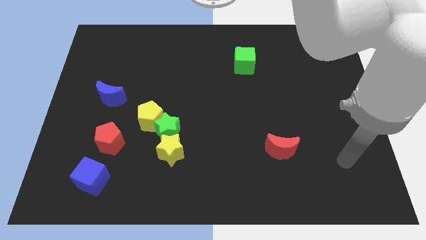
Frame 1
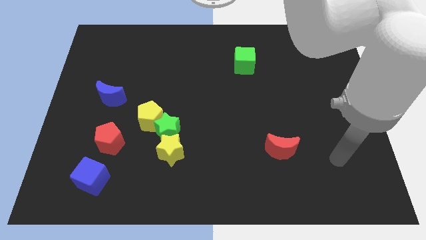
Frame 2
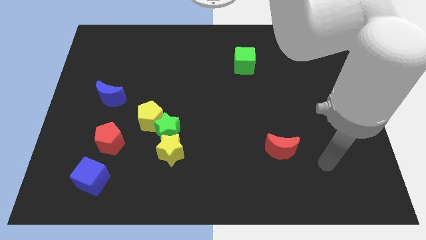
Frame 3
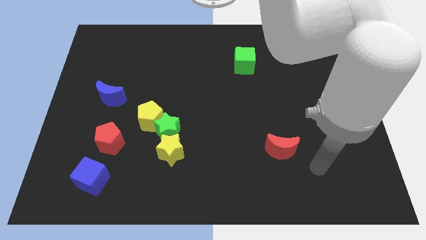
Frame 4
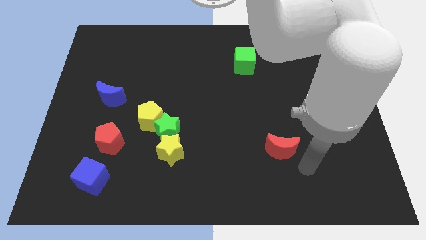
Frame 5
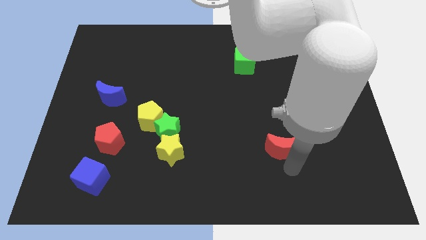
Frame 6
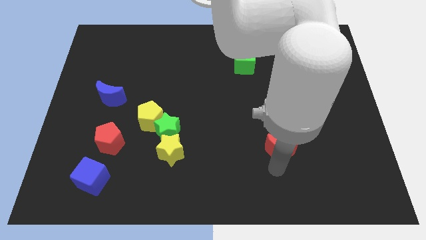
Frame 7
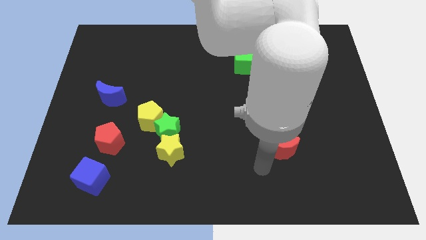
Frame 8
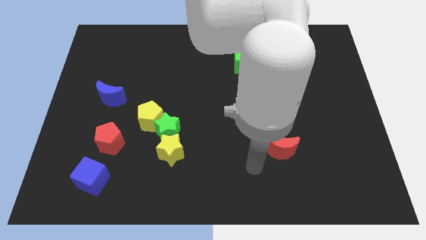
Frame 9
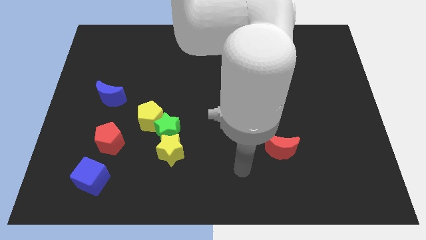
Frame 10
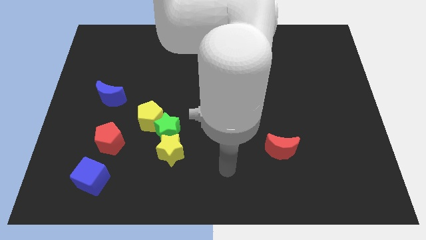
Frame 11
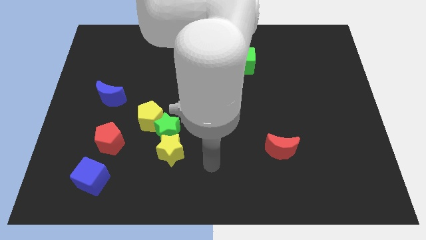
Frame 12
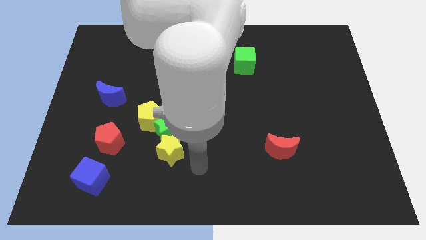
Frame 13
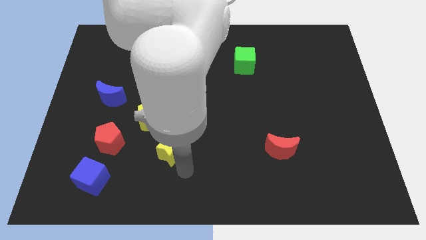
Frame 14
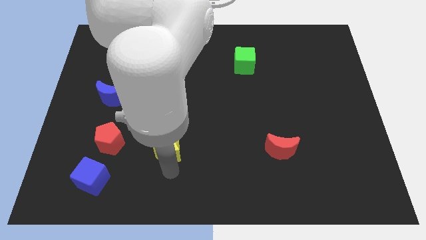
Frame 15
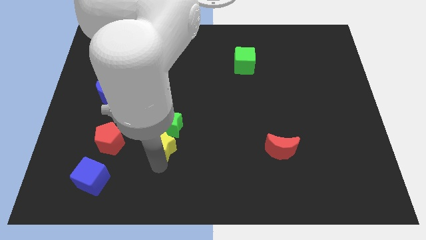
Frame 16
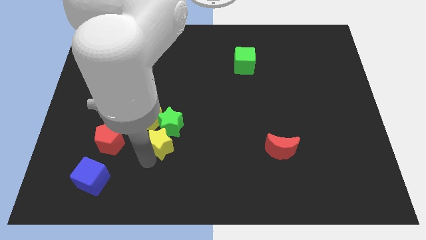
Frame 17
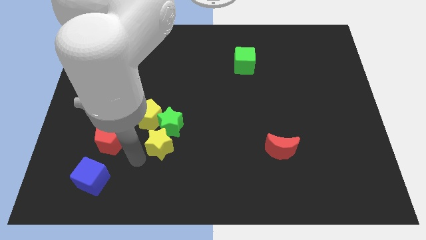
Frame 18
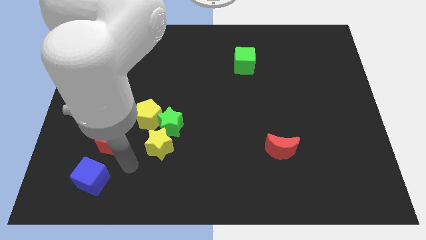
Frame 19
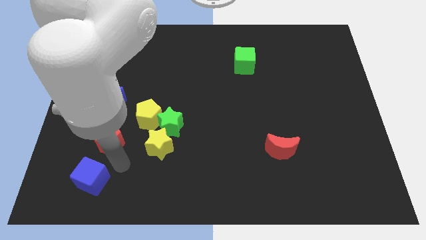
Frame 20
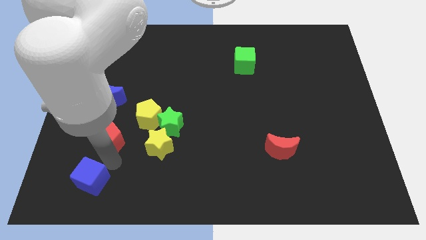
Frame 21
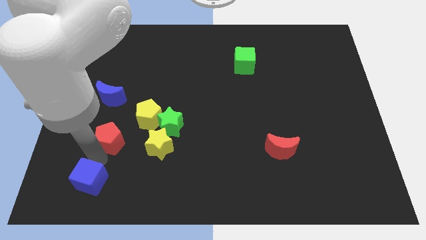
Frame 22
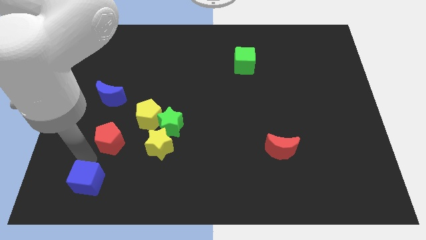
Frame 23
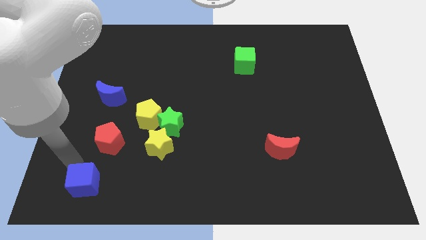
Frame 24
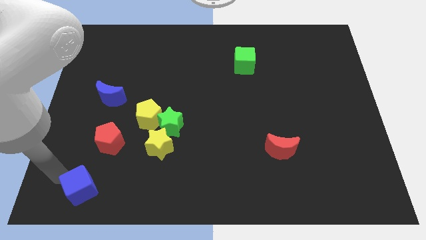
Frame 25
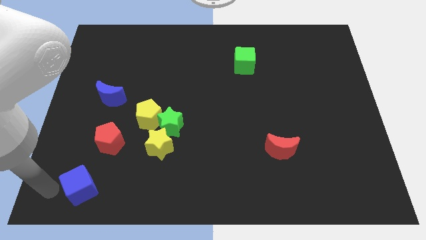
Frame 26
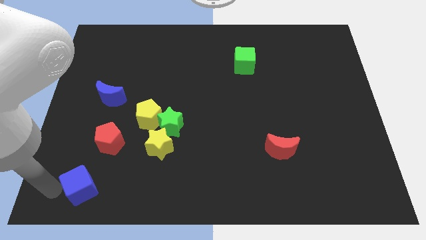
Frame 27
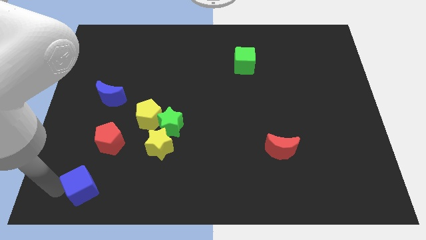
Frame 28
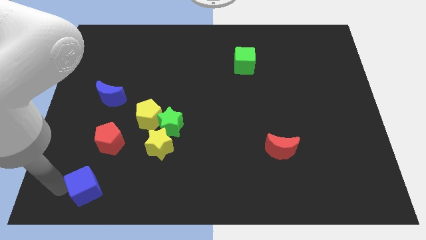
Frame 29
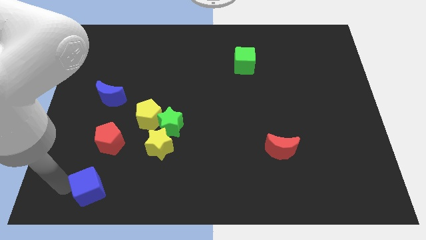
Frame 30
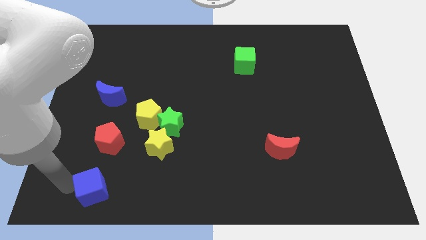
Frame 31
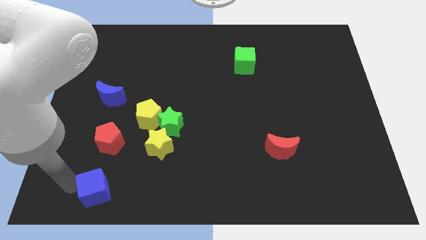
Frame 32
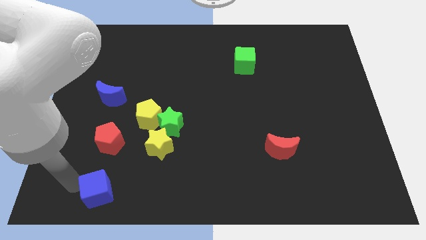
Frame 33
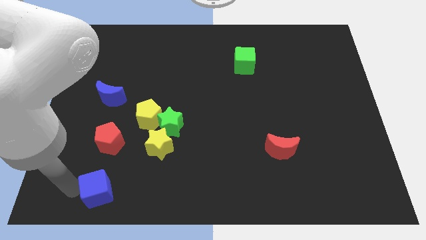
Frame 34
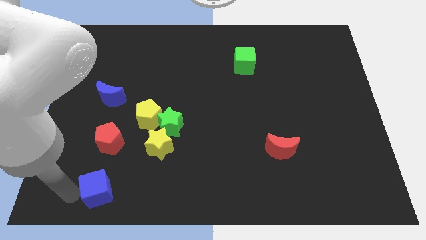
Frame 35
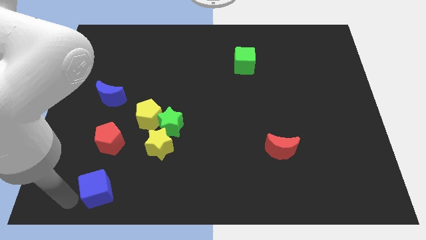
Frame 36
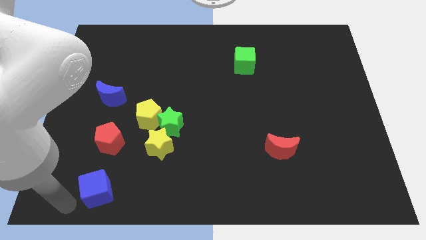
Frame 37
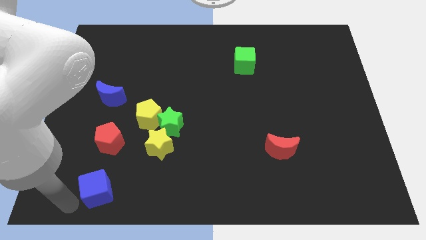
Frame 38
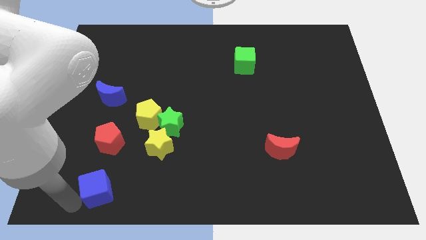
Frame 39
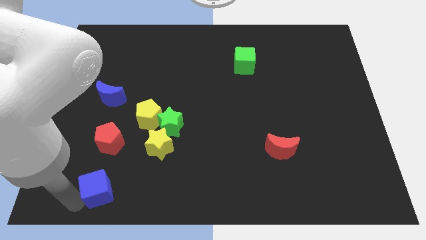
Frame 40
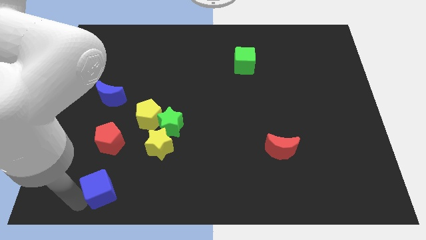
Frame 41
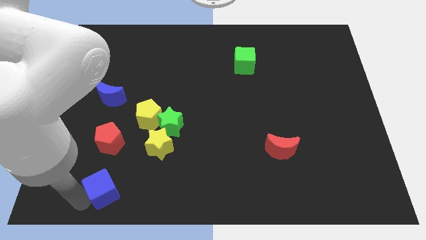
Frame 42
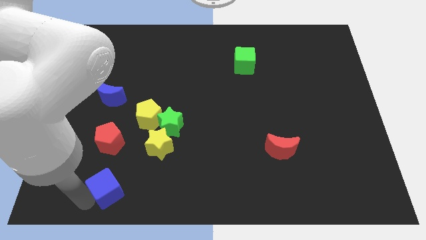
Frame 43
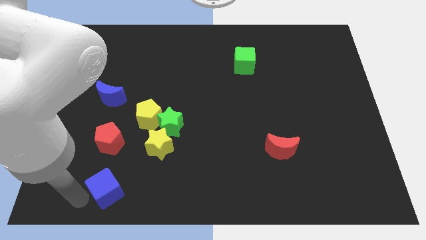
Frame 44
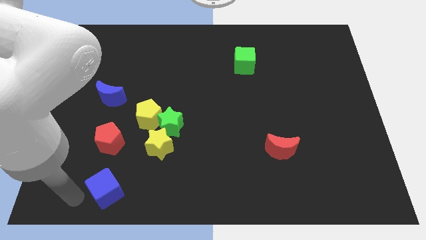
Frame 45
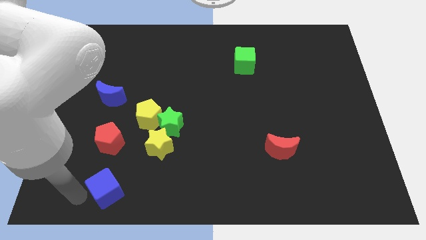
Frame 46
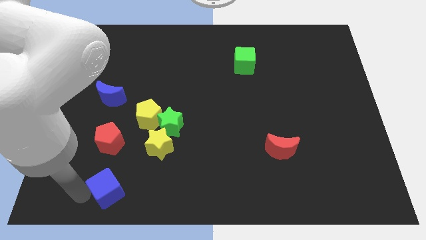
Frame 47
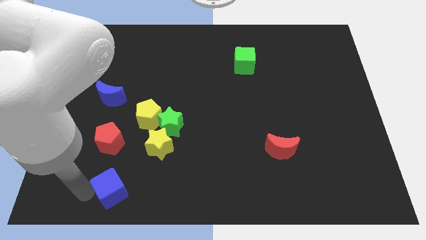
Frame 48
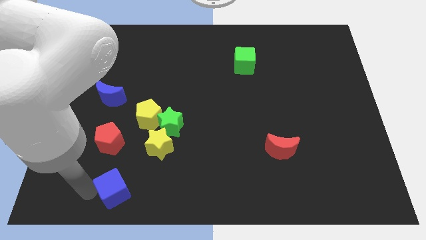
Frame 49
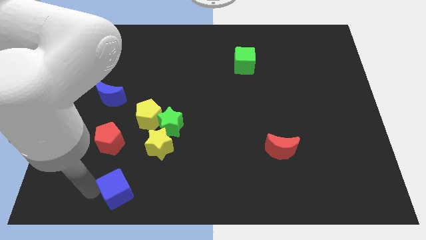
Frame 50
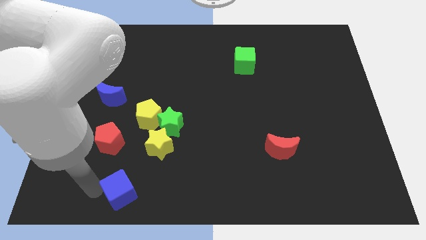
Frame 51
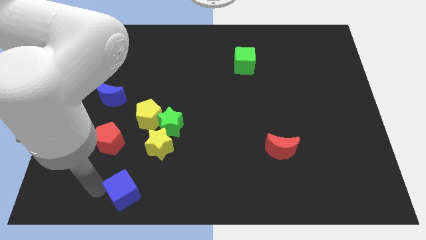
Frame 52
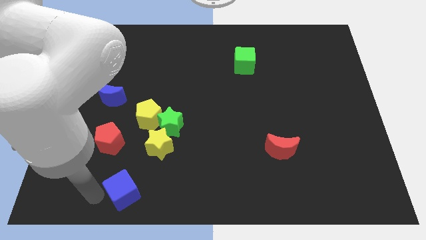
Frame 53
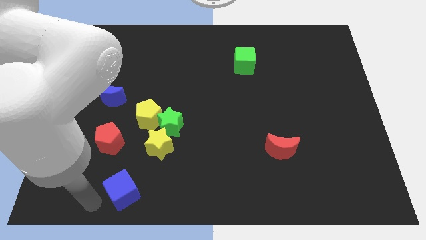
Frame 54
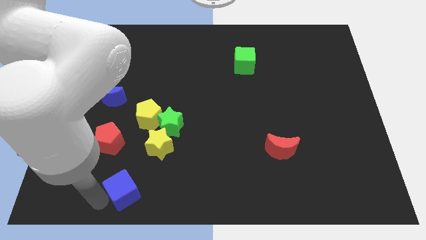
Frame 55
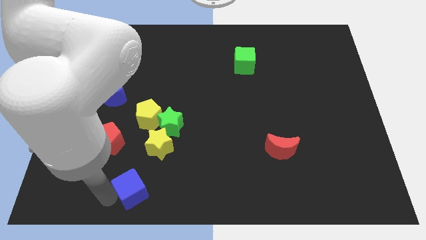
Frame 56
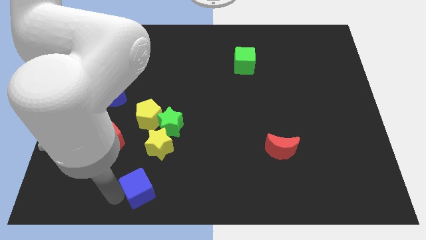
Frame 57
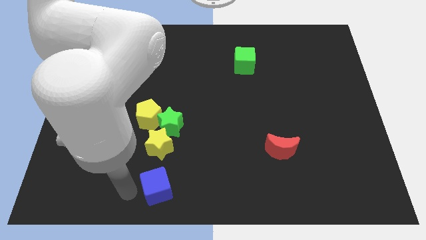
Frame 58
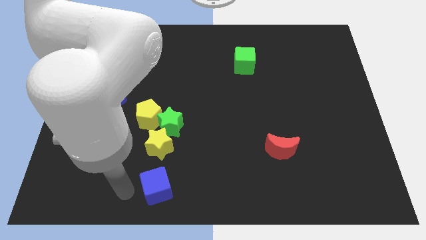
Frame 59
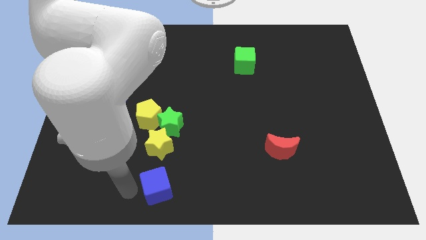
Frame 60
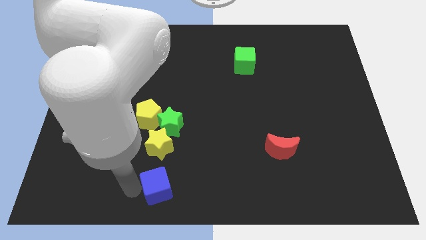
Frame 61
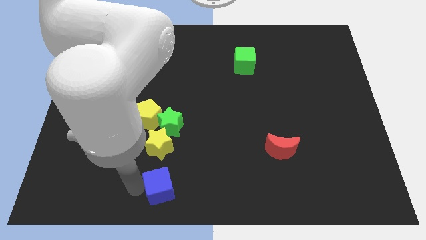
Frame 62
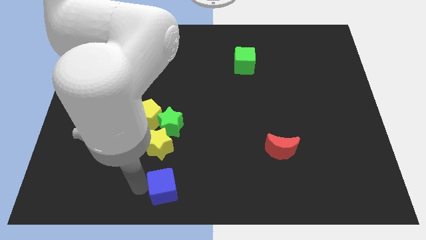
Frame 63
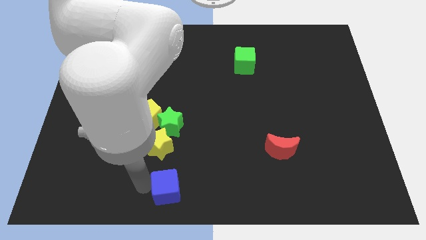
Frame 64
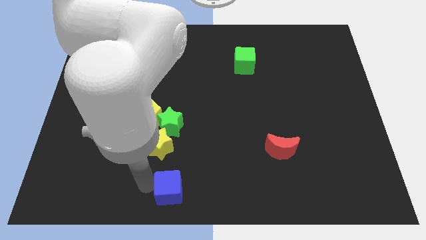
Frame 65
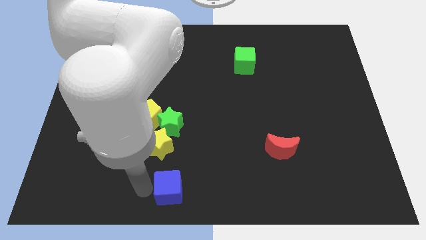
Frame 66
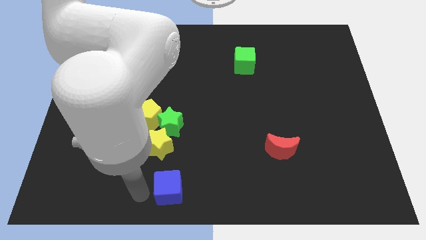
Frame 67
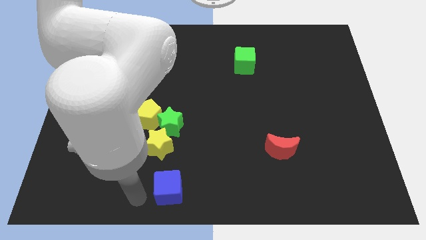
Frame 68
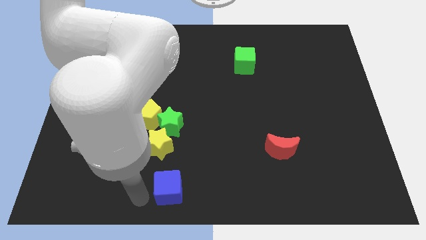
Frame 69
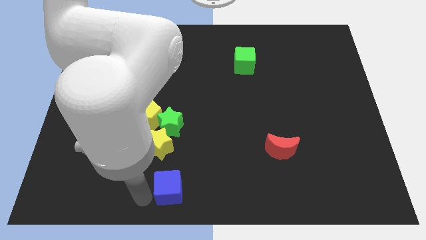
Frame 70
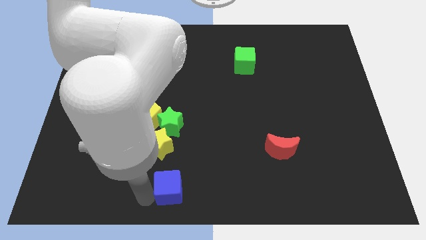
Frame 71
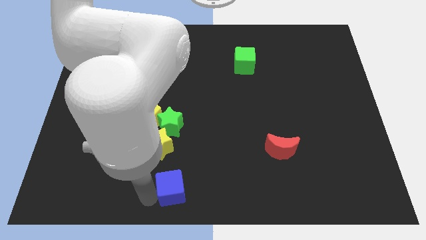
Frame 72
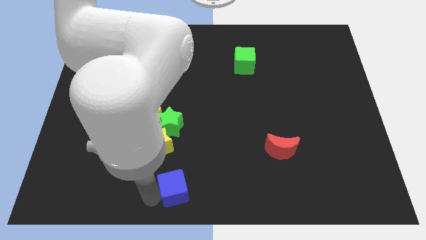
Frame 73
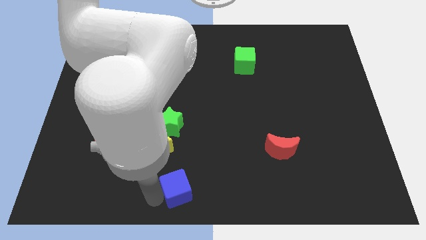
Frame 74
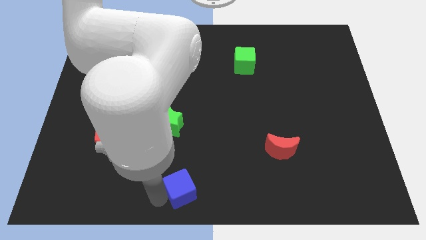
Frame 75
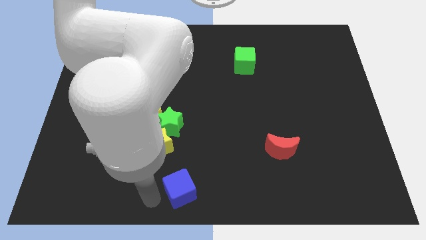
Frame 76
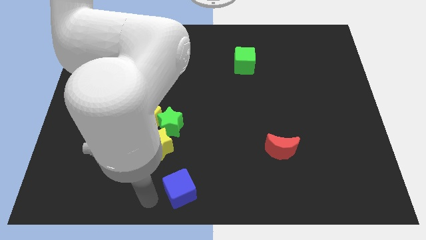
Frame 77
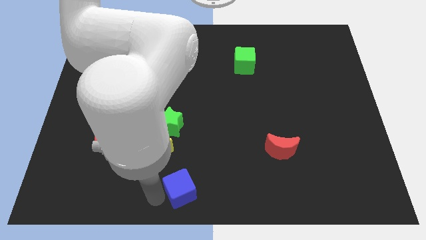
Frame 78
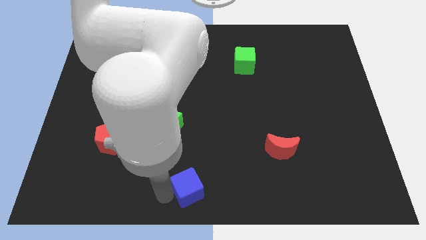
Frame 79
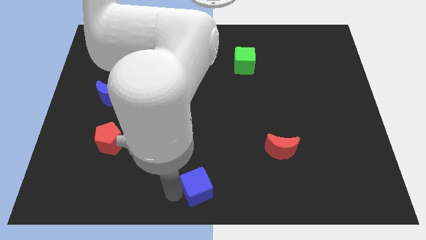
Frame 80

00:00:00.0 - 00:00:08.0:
slide the blue cube to the right
